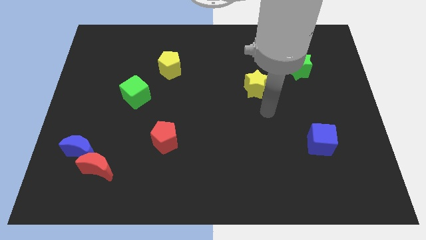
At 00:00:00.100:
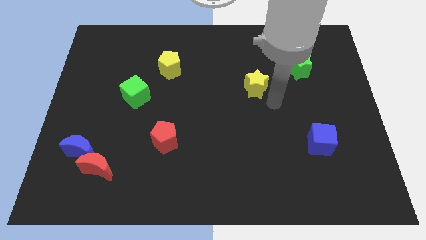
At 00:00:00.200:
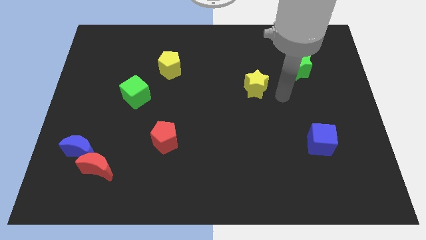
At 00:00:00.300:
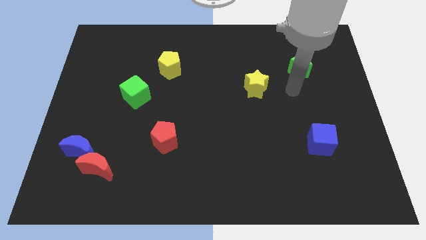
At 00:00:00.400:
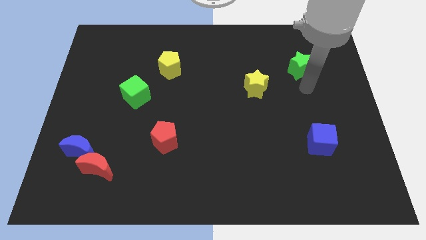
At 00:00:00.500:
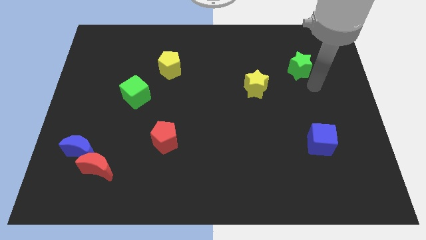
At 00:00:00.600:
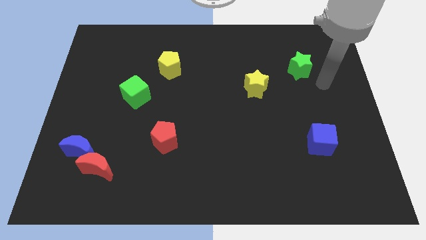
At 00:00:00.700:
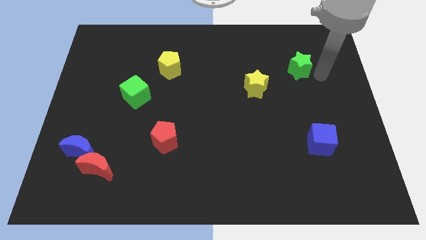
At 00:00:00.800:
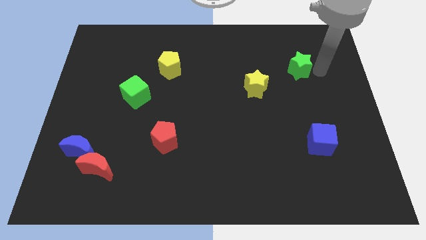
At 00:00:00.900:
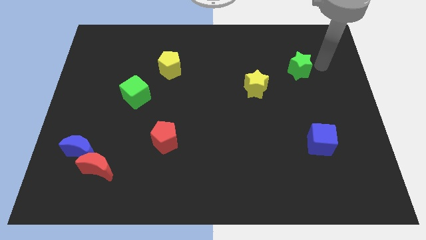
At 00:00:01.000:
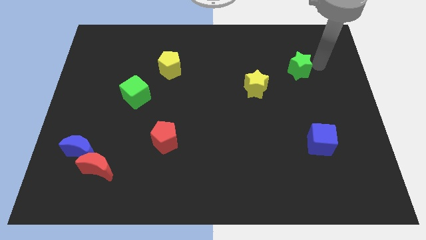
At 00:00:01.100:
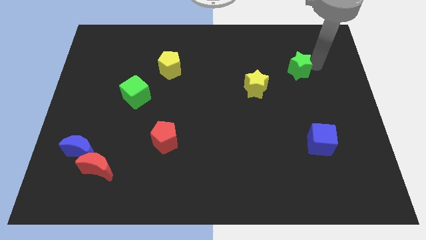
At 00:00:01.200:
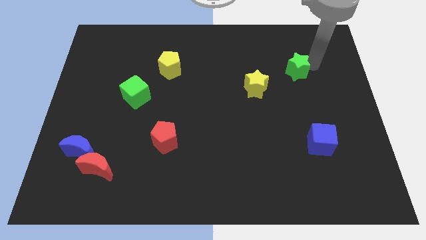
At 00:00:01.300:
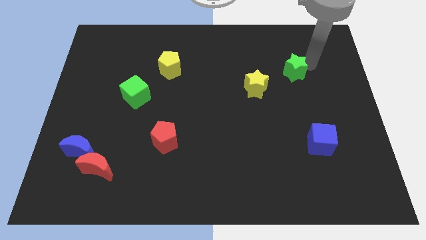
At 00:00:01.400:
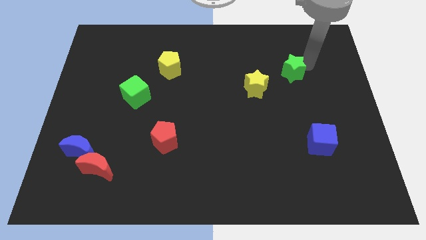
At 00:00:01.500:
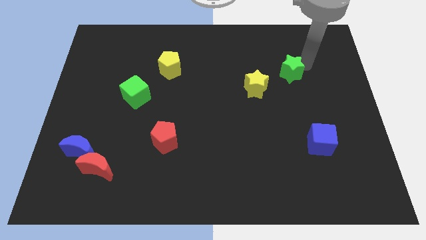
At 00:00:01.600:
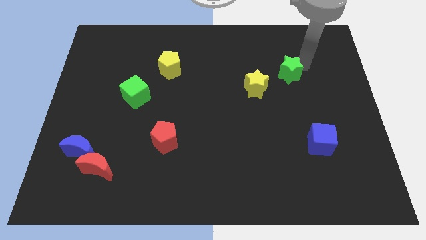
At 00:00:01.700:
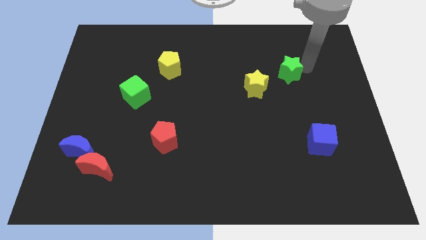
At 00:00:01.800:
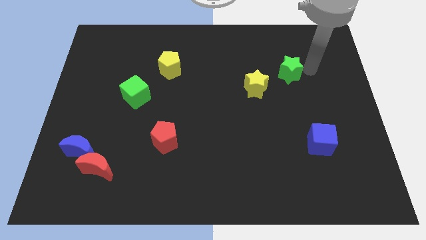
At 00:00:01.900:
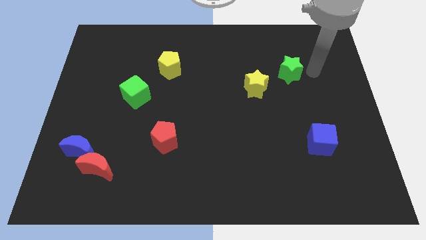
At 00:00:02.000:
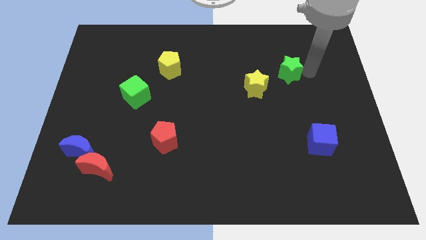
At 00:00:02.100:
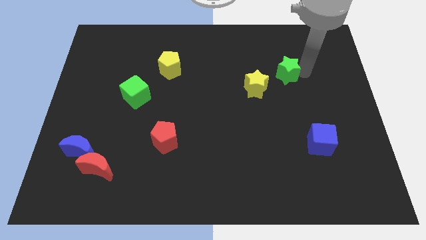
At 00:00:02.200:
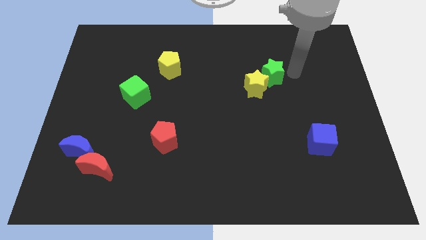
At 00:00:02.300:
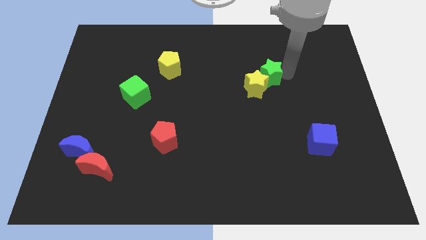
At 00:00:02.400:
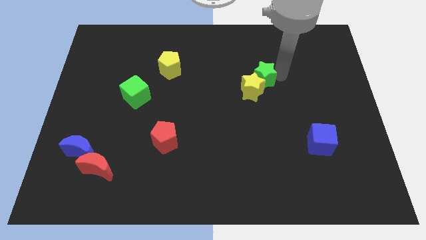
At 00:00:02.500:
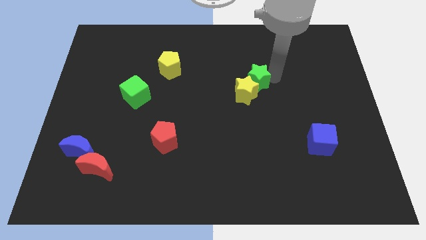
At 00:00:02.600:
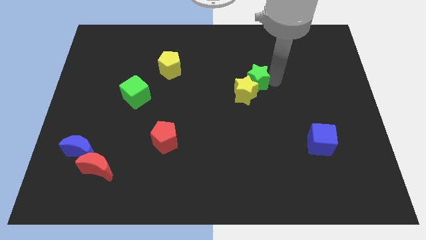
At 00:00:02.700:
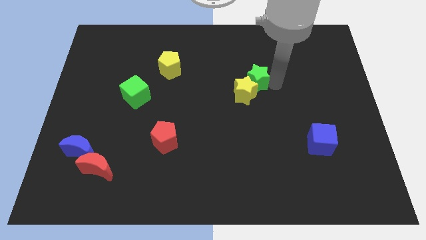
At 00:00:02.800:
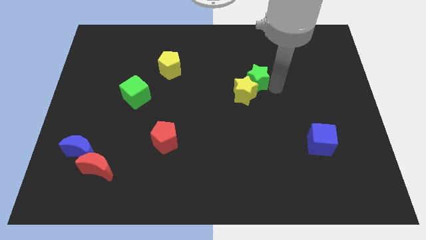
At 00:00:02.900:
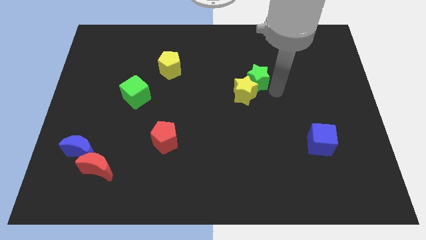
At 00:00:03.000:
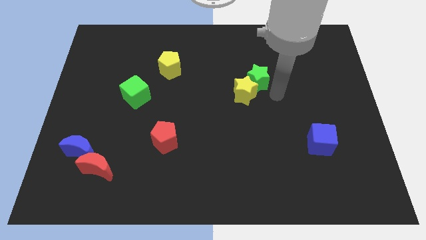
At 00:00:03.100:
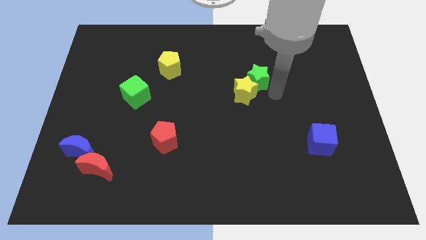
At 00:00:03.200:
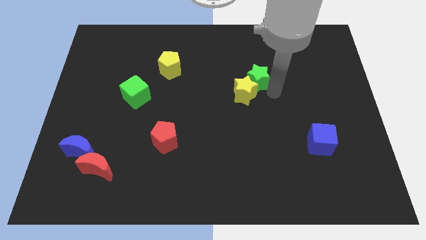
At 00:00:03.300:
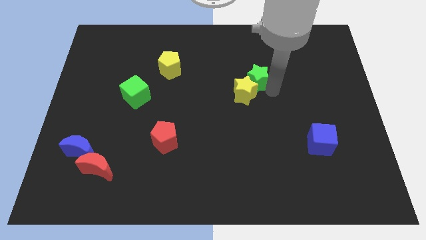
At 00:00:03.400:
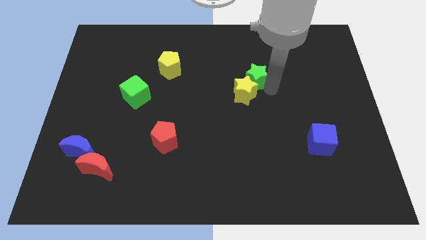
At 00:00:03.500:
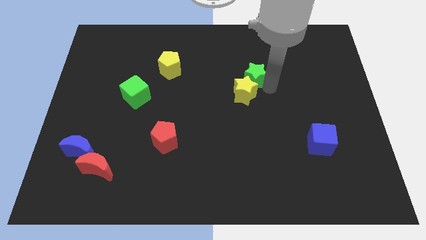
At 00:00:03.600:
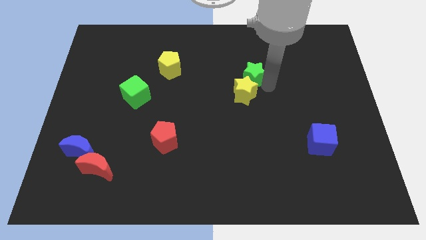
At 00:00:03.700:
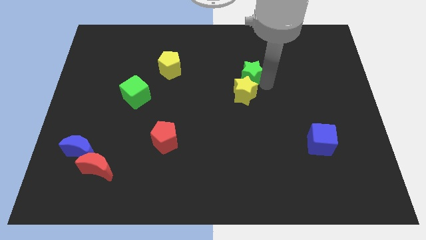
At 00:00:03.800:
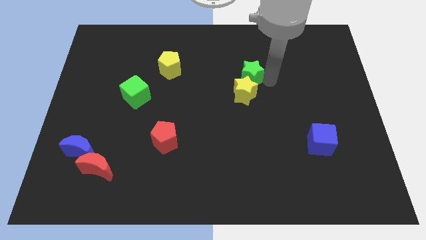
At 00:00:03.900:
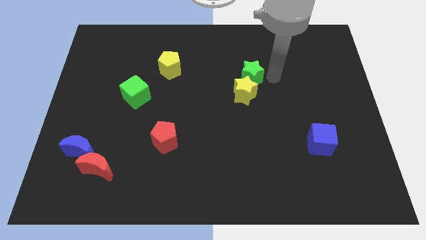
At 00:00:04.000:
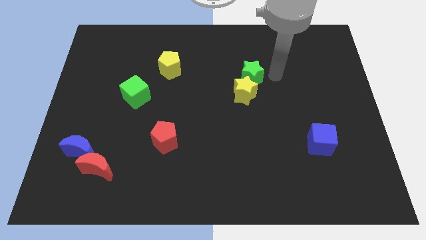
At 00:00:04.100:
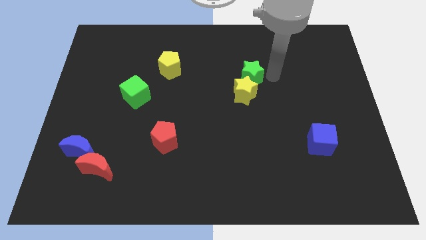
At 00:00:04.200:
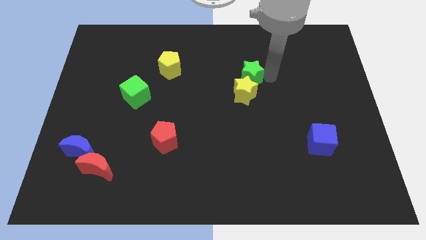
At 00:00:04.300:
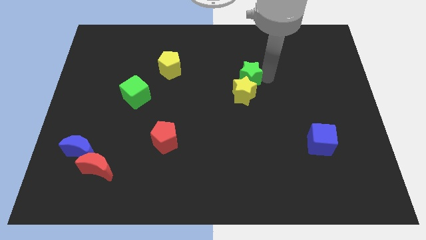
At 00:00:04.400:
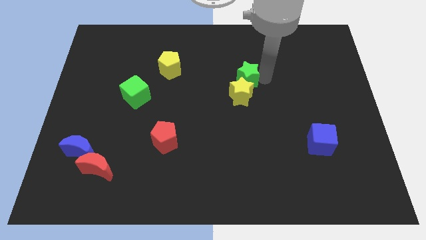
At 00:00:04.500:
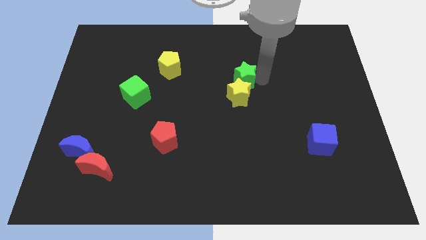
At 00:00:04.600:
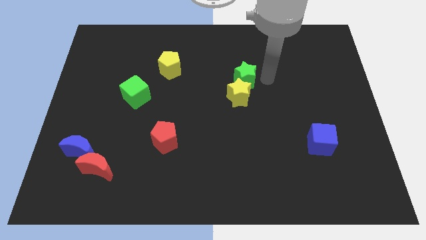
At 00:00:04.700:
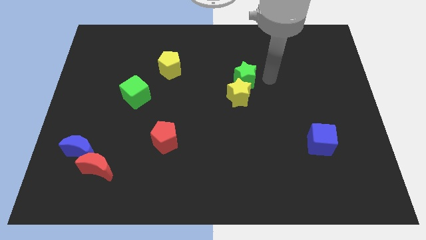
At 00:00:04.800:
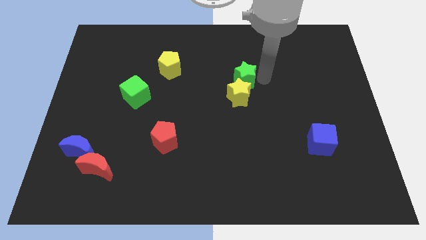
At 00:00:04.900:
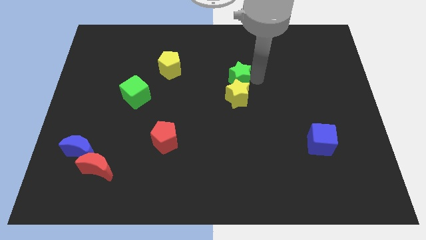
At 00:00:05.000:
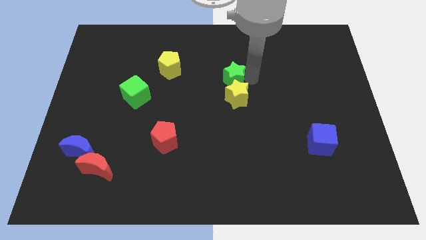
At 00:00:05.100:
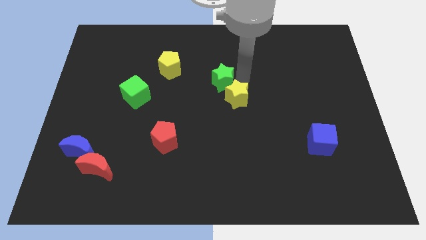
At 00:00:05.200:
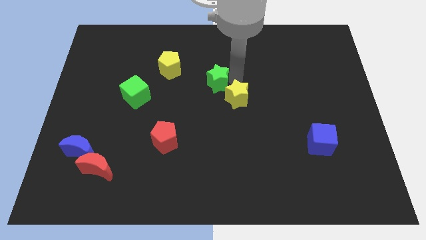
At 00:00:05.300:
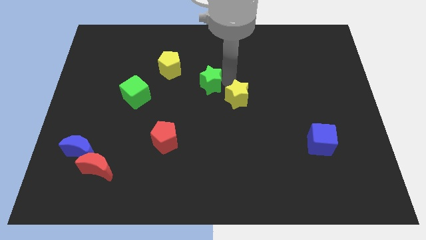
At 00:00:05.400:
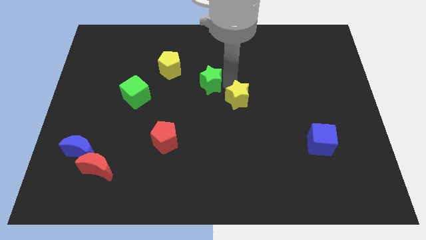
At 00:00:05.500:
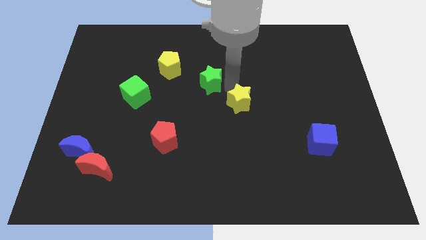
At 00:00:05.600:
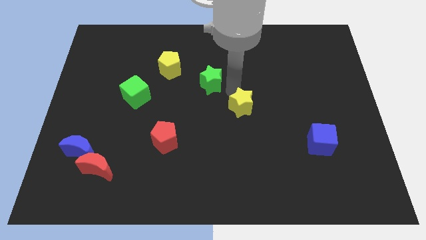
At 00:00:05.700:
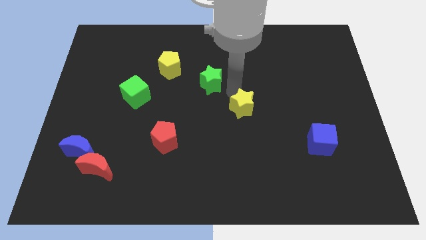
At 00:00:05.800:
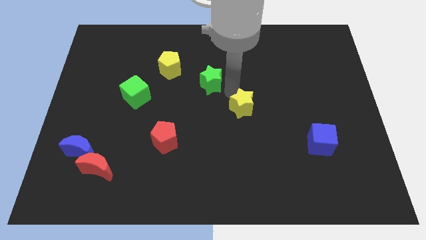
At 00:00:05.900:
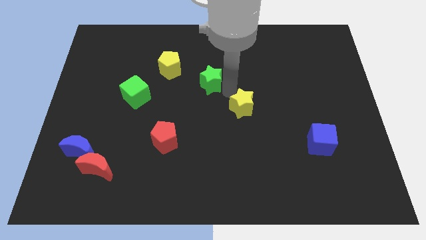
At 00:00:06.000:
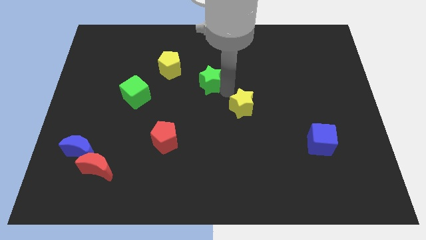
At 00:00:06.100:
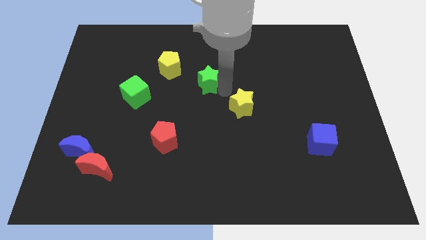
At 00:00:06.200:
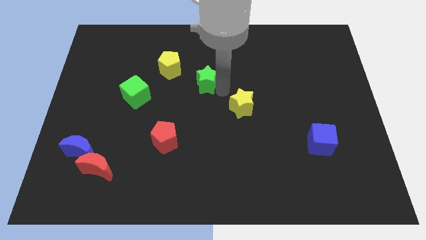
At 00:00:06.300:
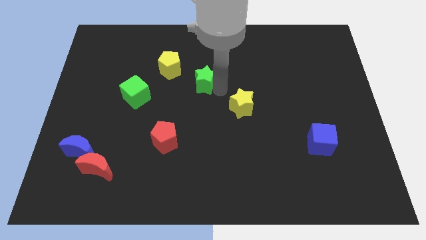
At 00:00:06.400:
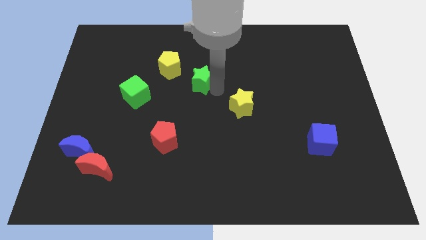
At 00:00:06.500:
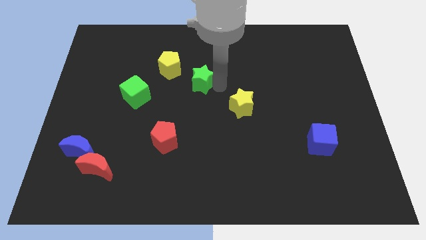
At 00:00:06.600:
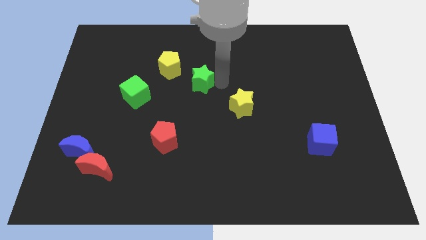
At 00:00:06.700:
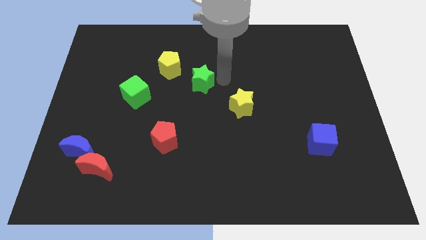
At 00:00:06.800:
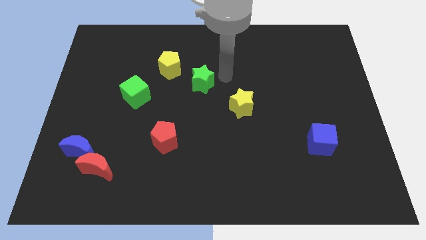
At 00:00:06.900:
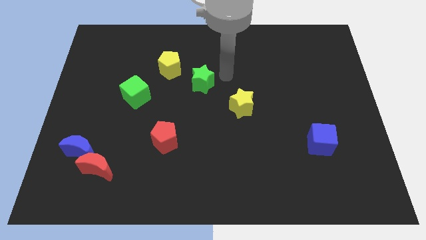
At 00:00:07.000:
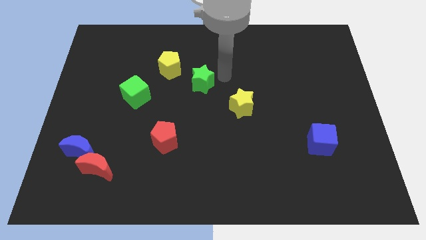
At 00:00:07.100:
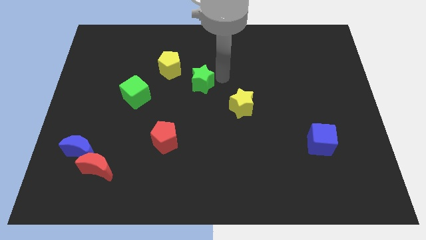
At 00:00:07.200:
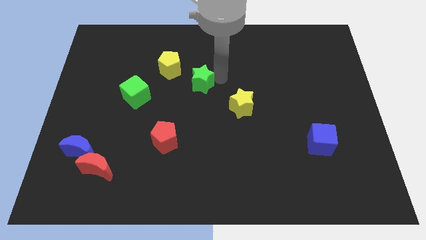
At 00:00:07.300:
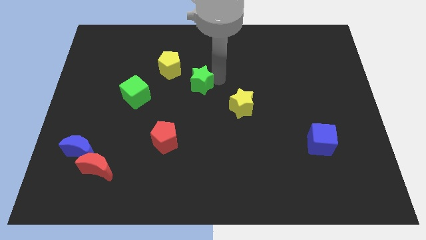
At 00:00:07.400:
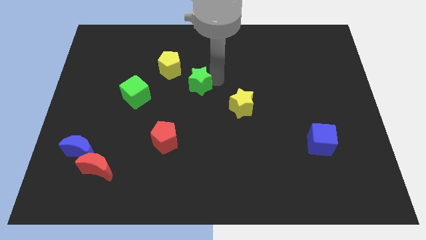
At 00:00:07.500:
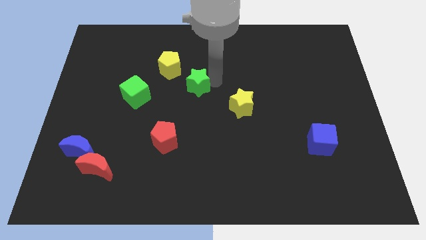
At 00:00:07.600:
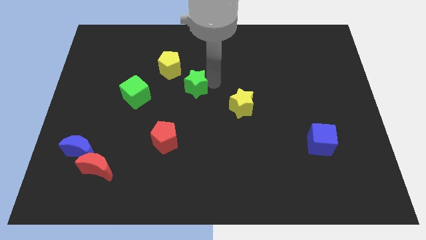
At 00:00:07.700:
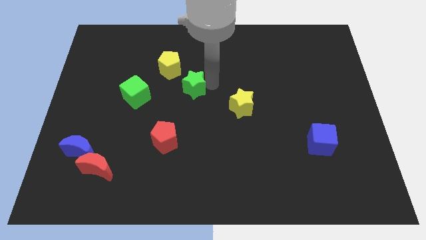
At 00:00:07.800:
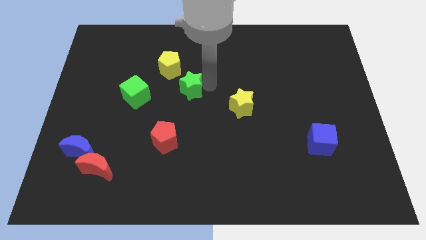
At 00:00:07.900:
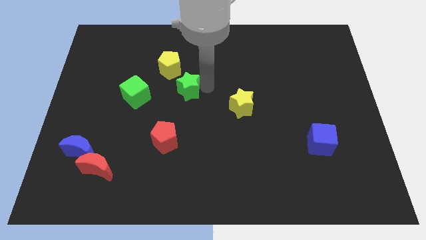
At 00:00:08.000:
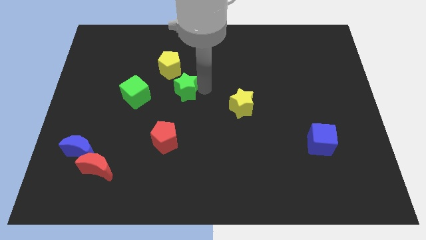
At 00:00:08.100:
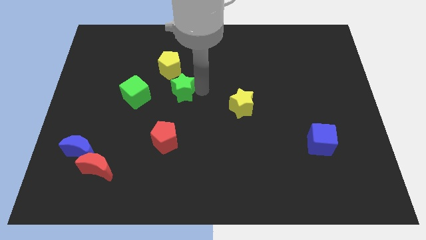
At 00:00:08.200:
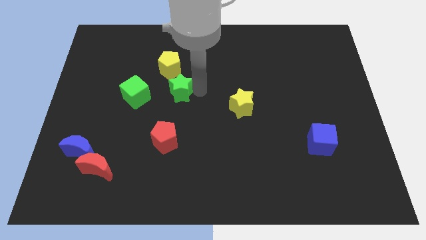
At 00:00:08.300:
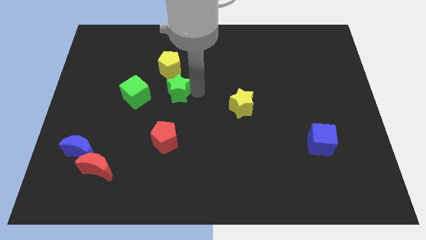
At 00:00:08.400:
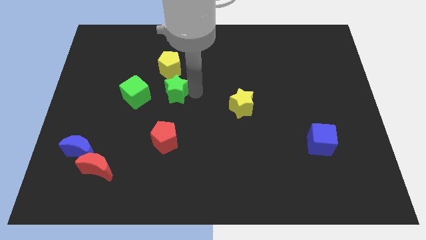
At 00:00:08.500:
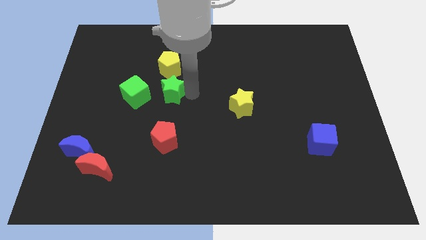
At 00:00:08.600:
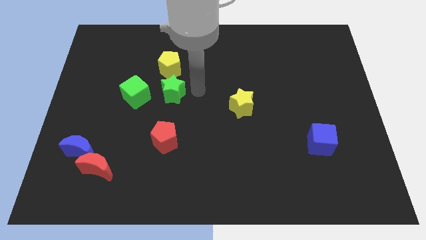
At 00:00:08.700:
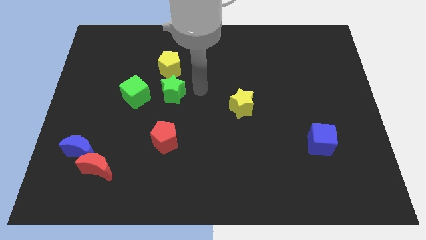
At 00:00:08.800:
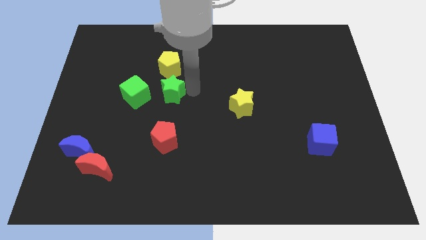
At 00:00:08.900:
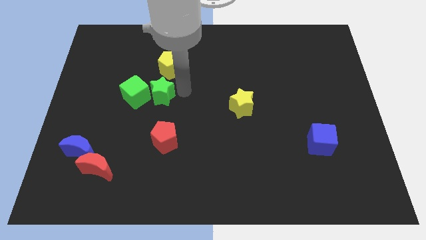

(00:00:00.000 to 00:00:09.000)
slide the green star towards the green cube
